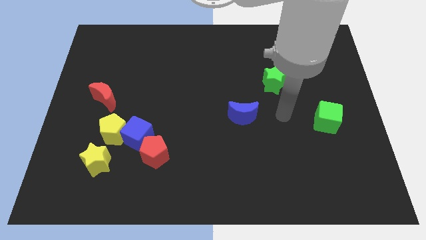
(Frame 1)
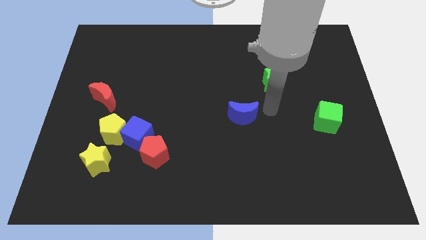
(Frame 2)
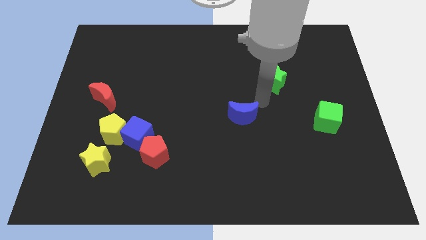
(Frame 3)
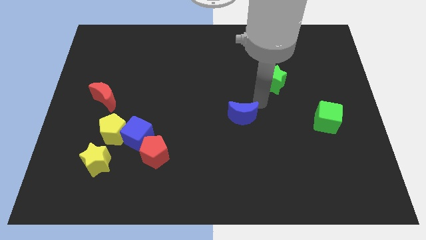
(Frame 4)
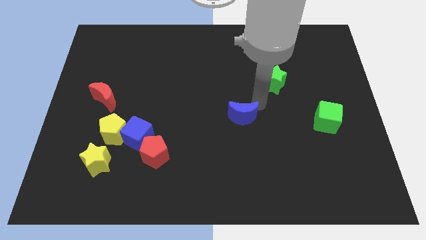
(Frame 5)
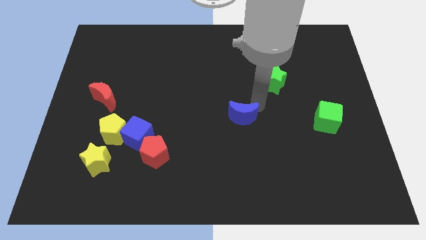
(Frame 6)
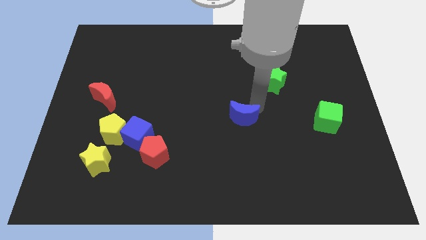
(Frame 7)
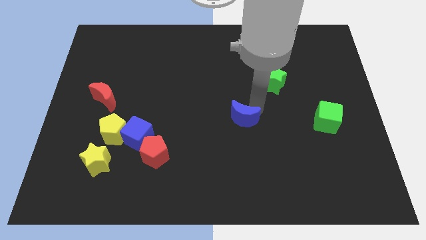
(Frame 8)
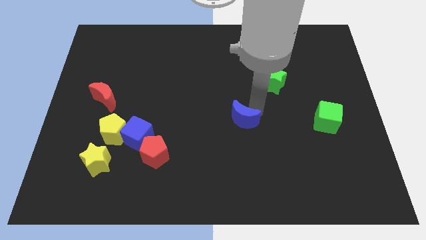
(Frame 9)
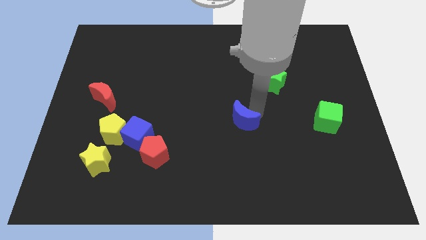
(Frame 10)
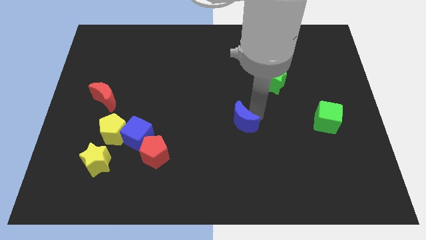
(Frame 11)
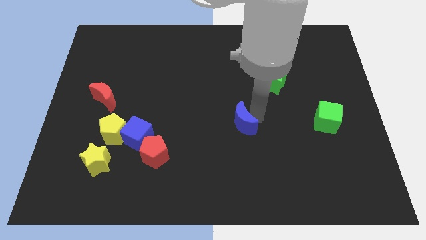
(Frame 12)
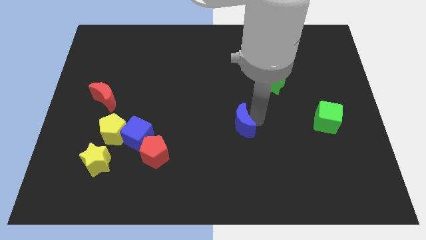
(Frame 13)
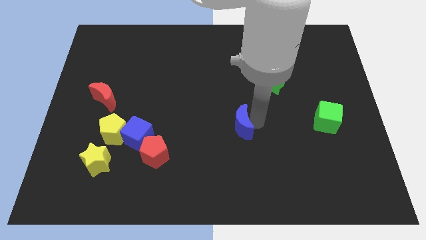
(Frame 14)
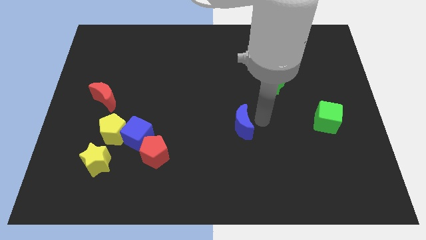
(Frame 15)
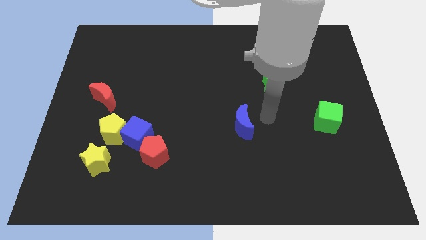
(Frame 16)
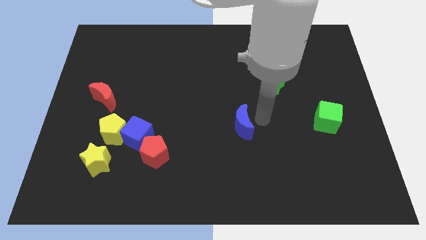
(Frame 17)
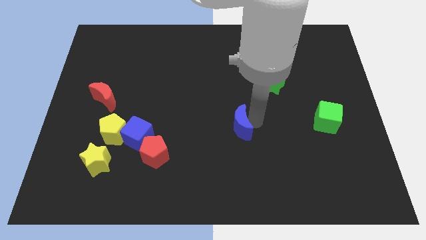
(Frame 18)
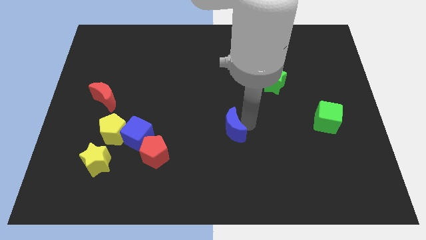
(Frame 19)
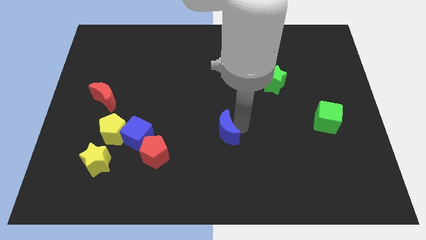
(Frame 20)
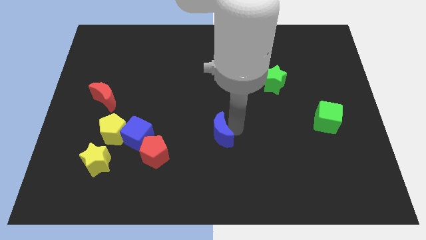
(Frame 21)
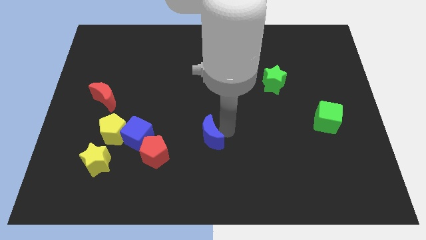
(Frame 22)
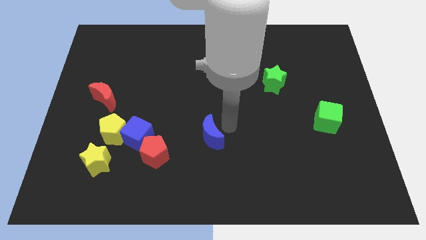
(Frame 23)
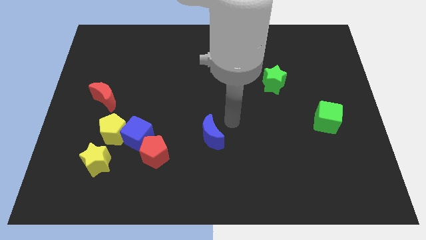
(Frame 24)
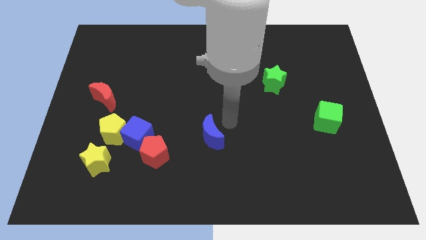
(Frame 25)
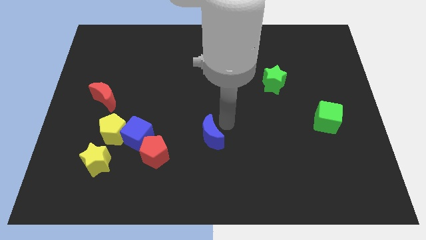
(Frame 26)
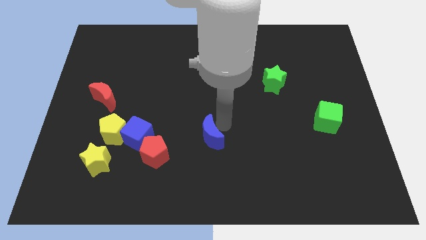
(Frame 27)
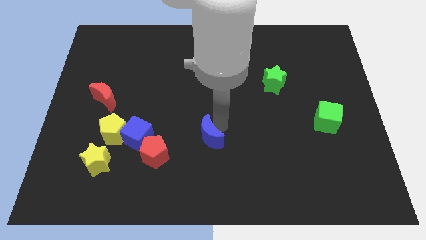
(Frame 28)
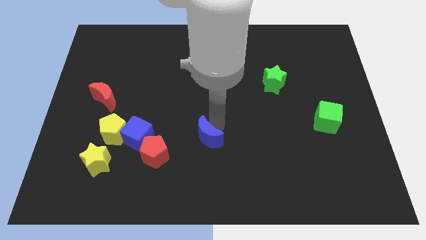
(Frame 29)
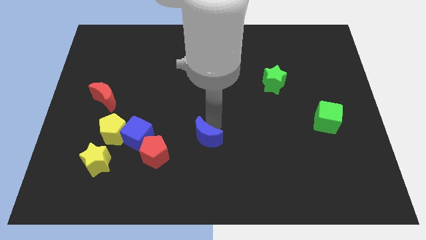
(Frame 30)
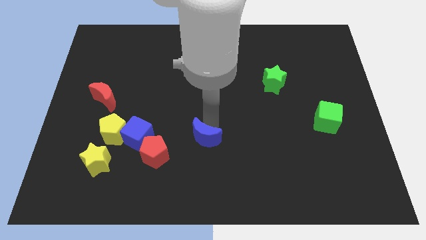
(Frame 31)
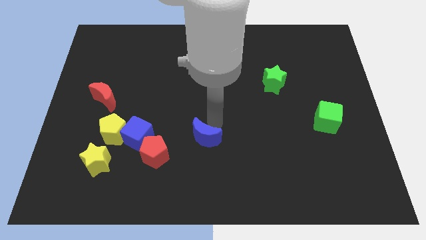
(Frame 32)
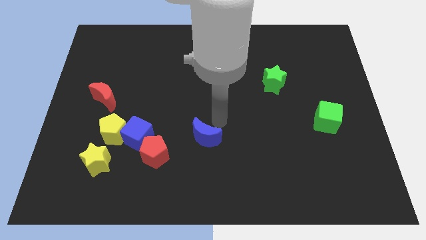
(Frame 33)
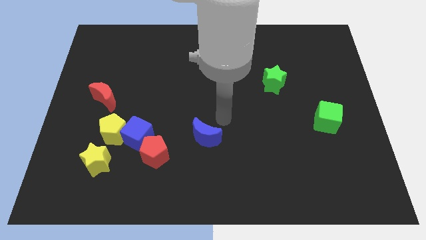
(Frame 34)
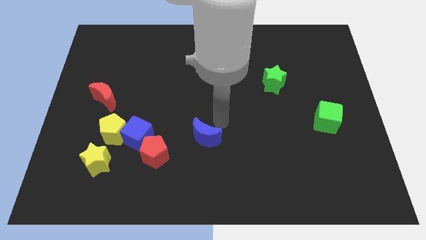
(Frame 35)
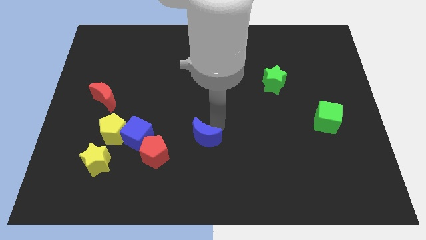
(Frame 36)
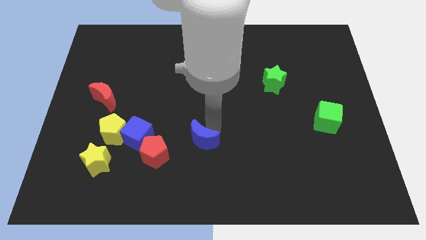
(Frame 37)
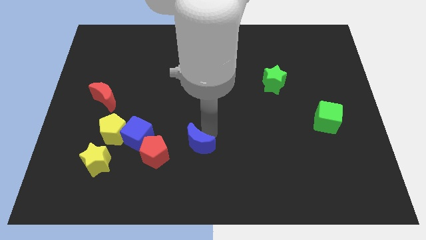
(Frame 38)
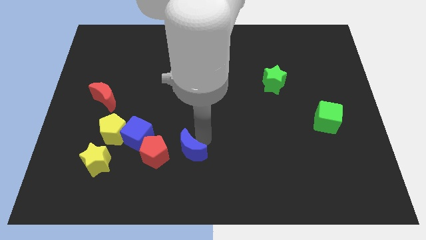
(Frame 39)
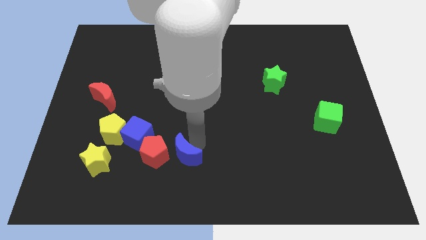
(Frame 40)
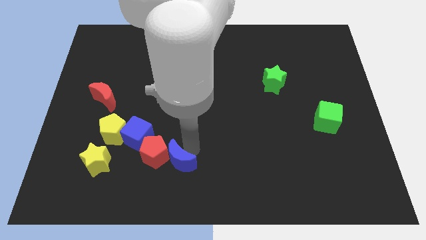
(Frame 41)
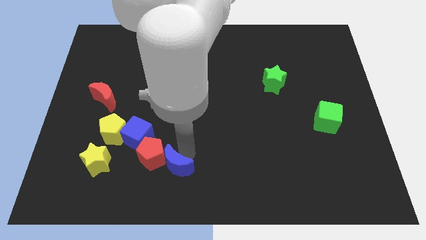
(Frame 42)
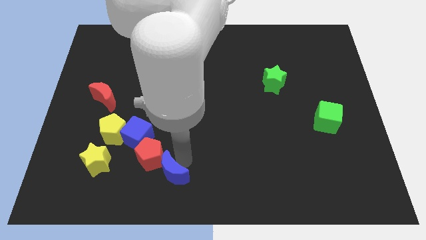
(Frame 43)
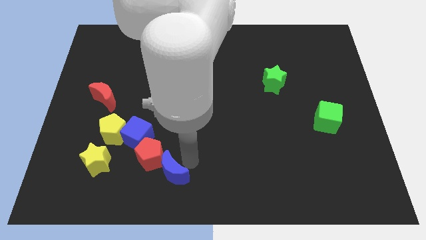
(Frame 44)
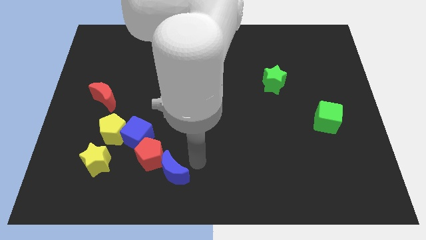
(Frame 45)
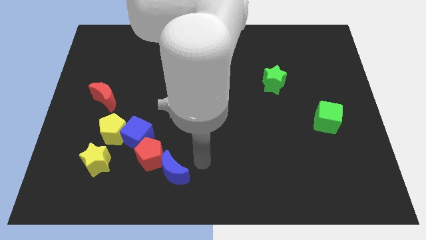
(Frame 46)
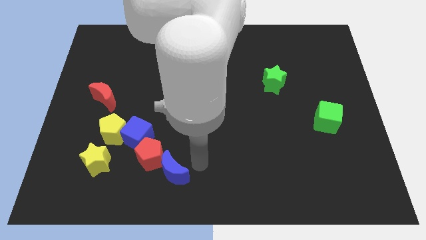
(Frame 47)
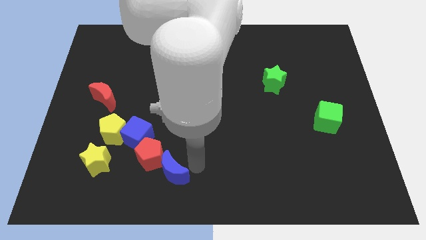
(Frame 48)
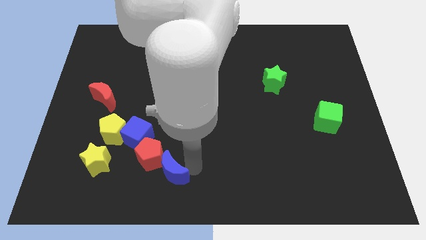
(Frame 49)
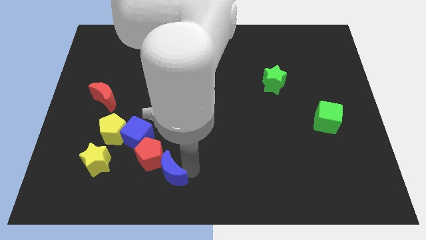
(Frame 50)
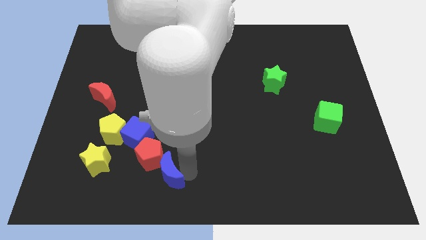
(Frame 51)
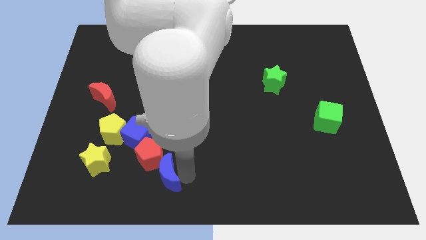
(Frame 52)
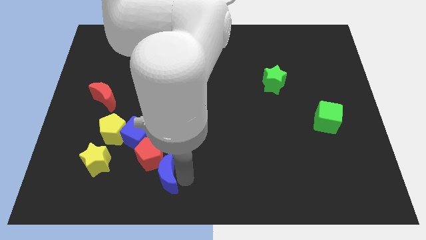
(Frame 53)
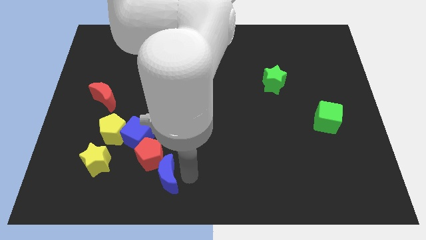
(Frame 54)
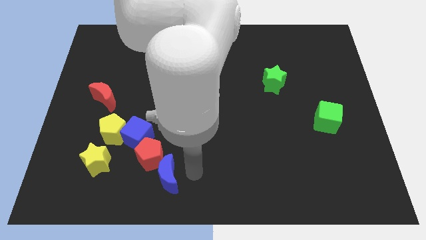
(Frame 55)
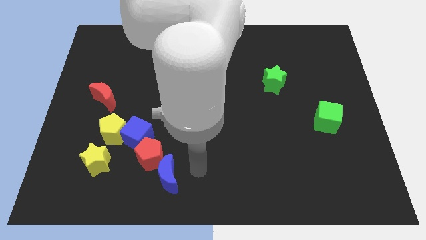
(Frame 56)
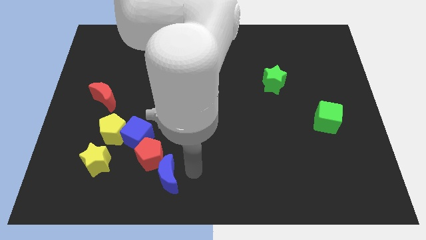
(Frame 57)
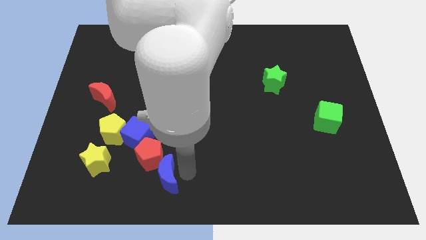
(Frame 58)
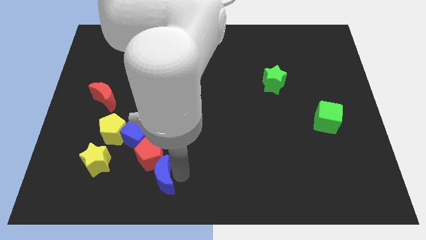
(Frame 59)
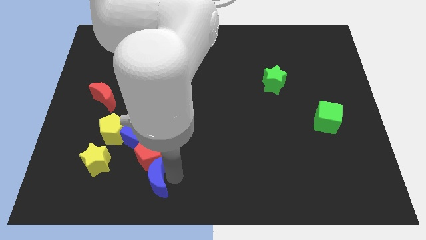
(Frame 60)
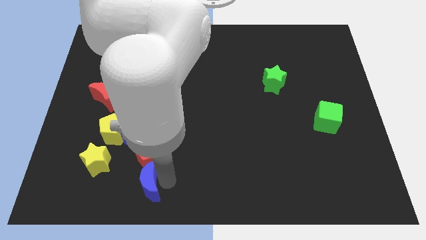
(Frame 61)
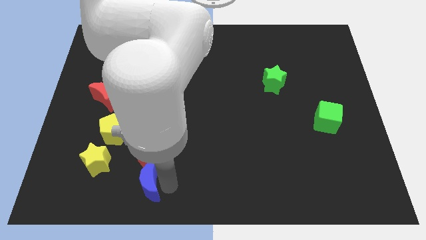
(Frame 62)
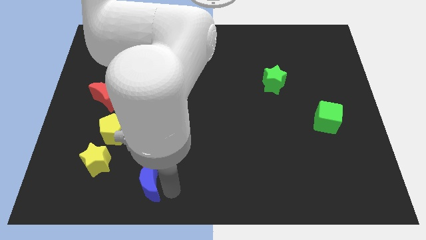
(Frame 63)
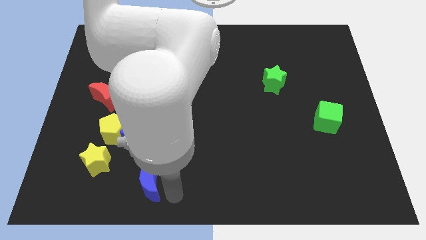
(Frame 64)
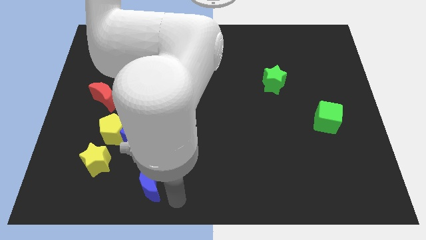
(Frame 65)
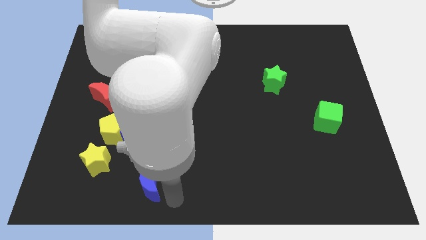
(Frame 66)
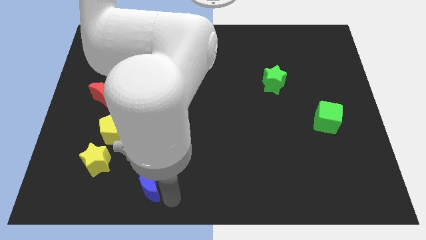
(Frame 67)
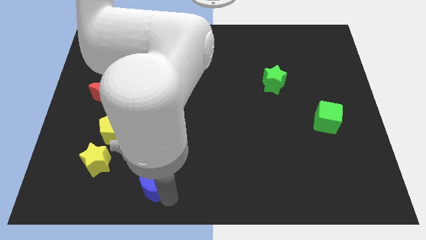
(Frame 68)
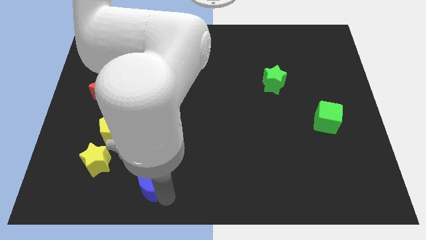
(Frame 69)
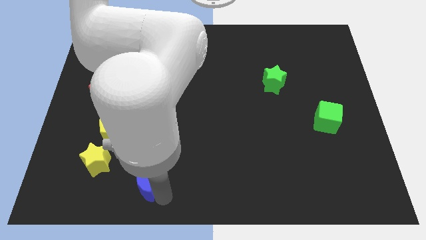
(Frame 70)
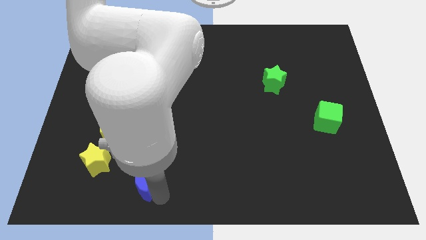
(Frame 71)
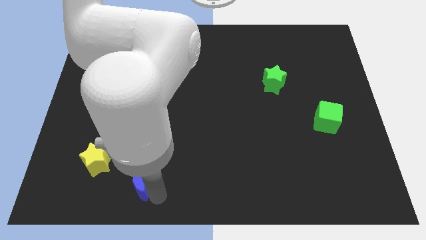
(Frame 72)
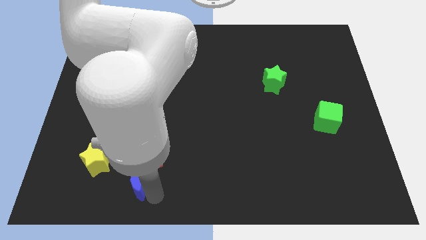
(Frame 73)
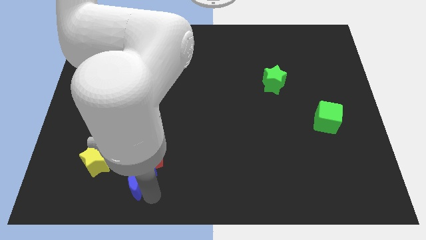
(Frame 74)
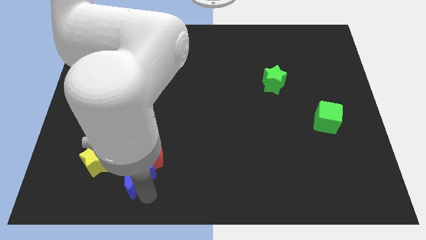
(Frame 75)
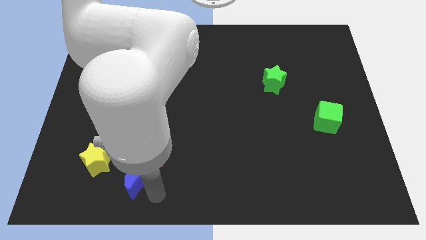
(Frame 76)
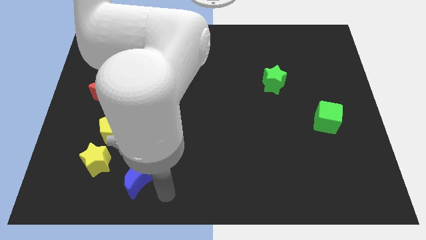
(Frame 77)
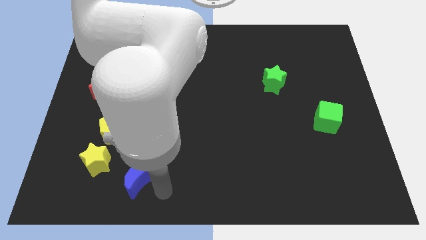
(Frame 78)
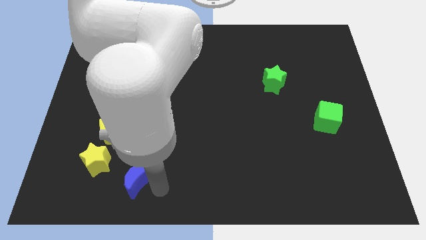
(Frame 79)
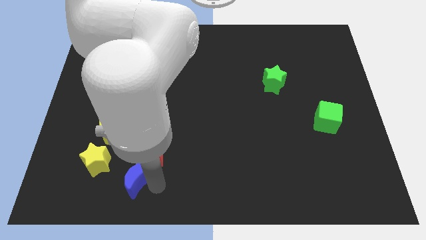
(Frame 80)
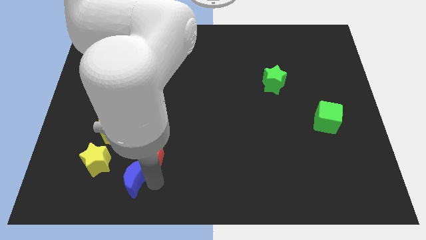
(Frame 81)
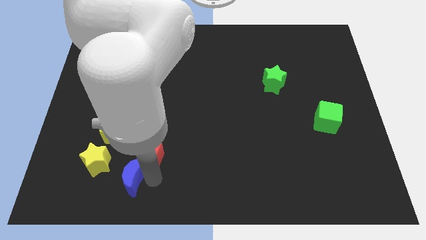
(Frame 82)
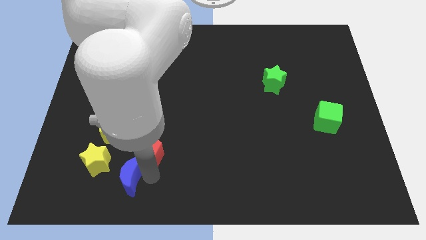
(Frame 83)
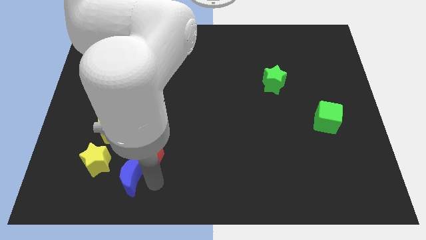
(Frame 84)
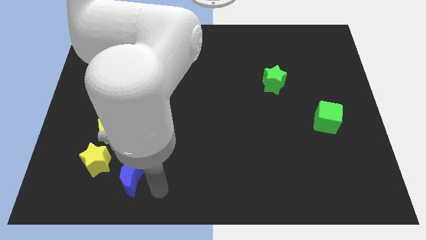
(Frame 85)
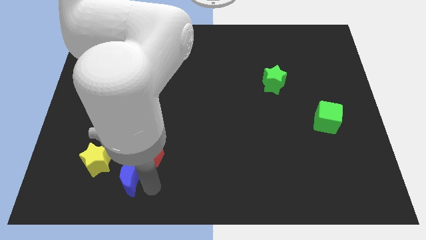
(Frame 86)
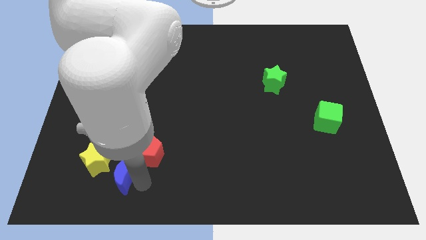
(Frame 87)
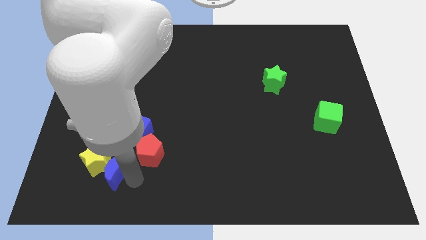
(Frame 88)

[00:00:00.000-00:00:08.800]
move the blue moon towards the yellow star

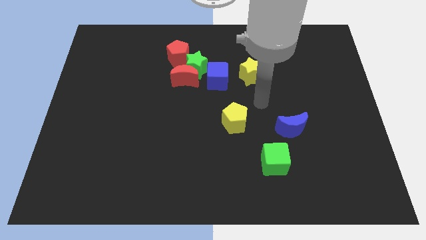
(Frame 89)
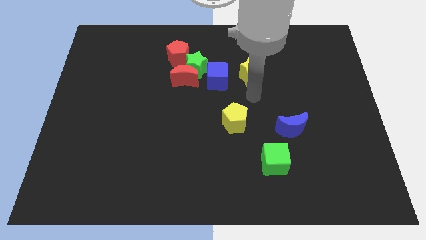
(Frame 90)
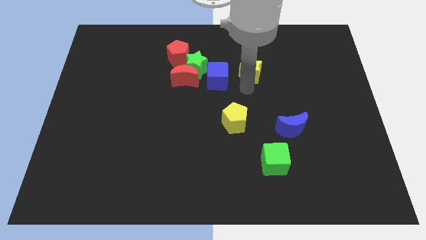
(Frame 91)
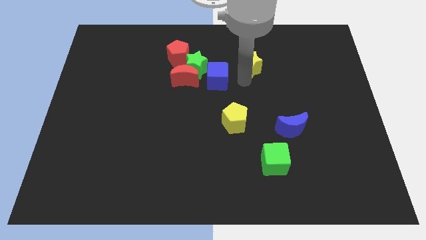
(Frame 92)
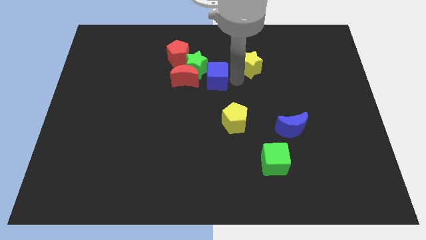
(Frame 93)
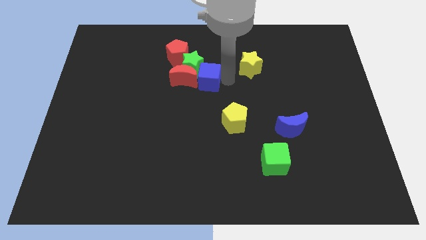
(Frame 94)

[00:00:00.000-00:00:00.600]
put the blue cube towards the red moon
